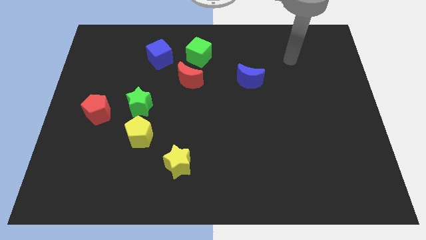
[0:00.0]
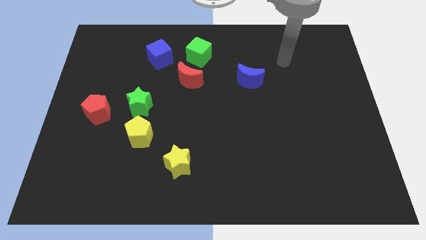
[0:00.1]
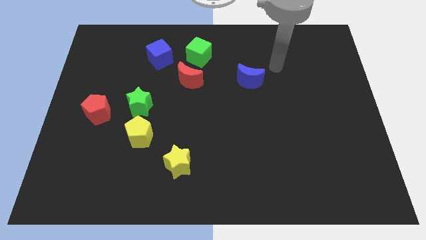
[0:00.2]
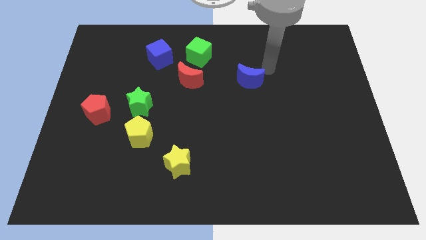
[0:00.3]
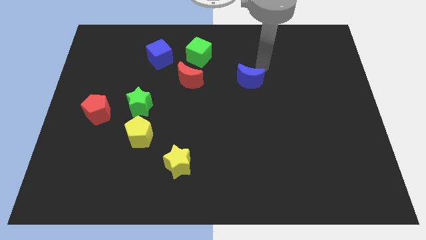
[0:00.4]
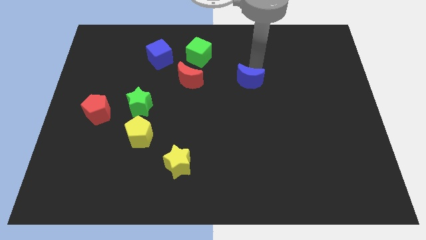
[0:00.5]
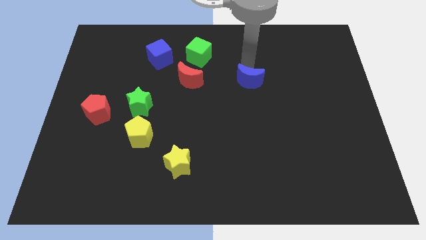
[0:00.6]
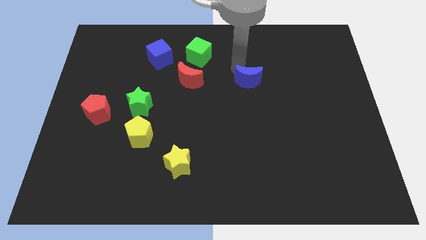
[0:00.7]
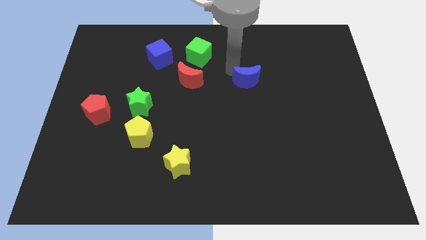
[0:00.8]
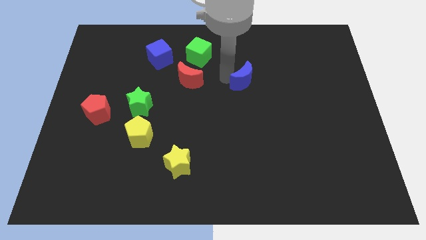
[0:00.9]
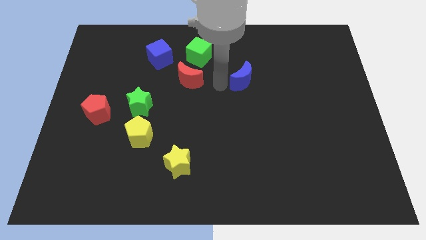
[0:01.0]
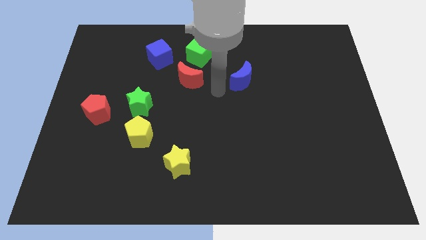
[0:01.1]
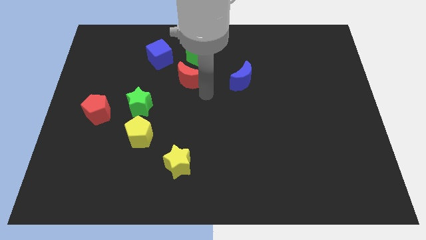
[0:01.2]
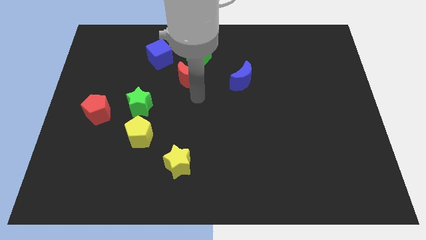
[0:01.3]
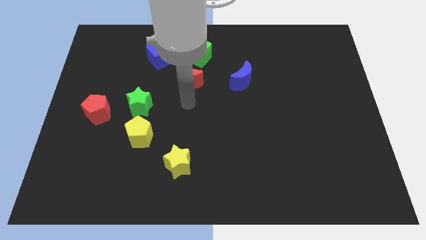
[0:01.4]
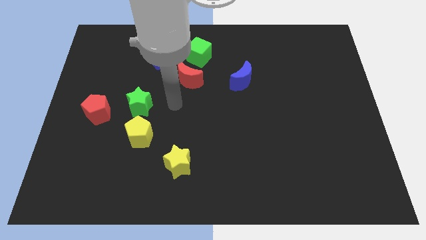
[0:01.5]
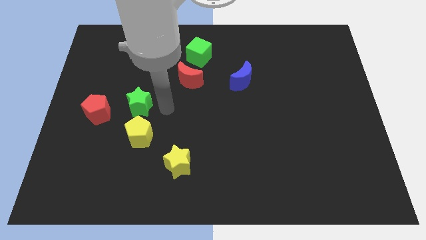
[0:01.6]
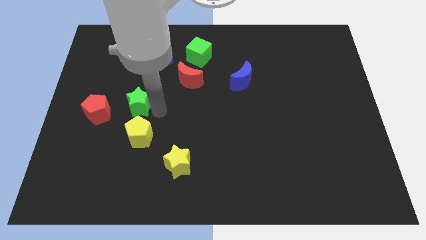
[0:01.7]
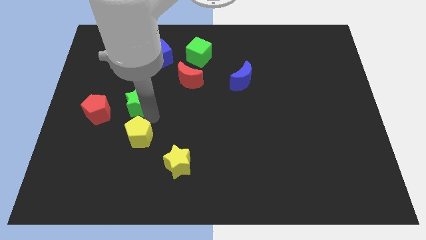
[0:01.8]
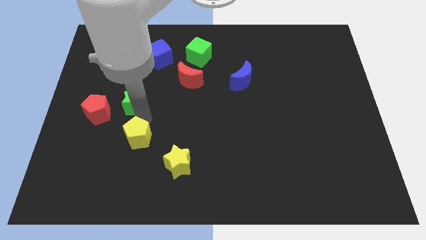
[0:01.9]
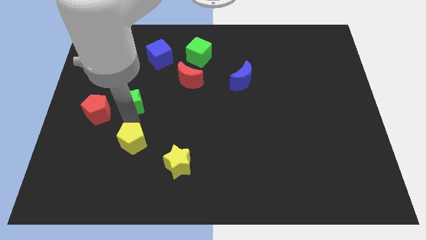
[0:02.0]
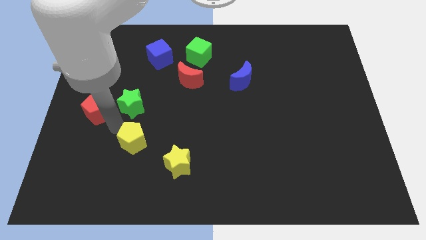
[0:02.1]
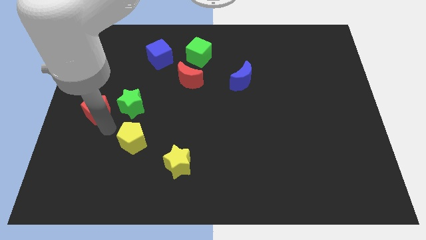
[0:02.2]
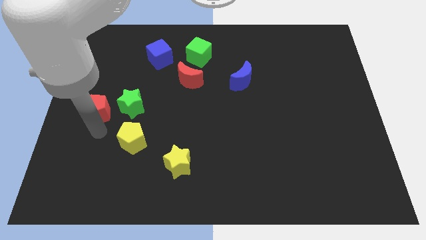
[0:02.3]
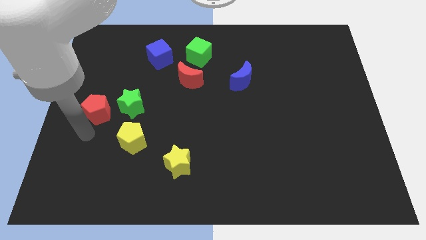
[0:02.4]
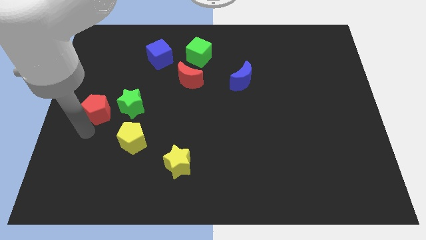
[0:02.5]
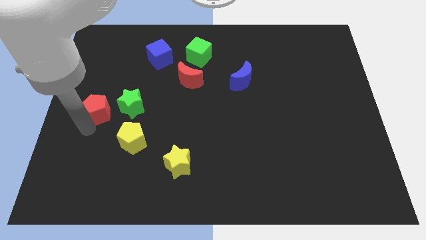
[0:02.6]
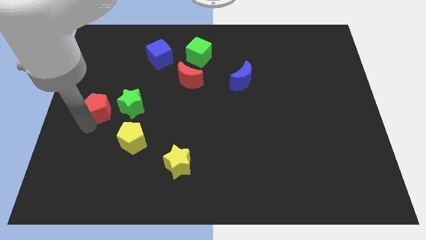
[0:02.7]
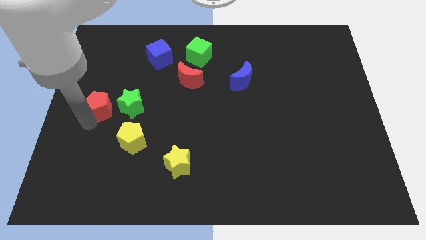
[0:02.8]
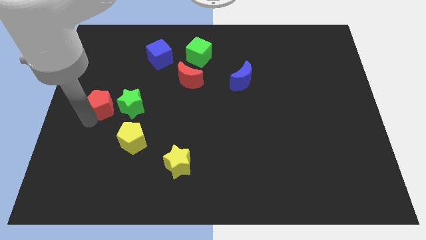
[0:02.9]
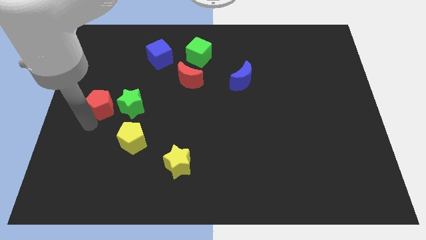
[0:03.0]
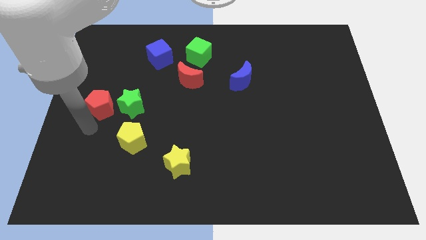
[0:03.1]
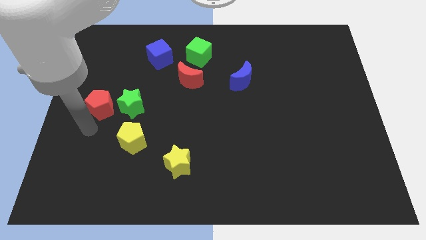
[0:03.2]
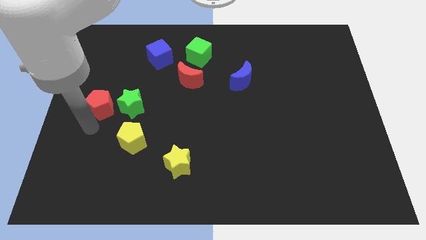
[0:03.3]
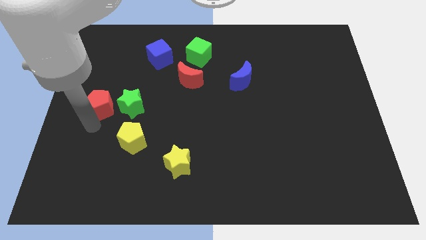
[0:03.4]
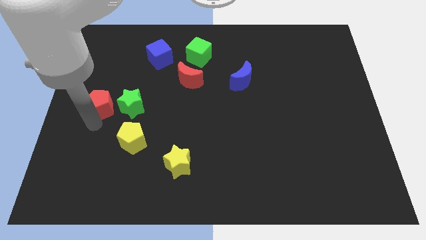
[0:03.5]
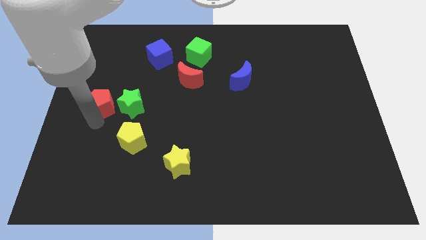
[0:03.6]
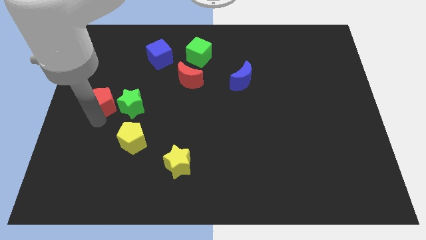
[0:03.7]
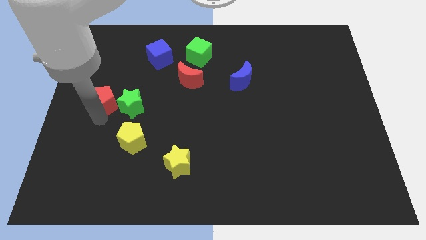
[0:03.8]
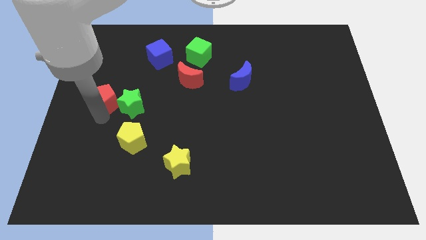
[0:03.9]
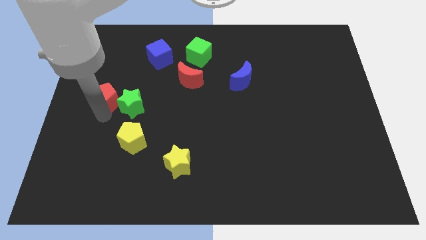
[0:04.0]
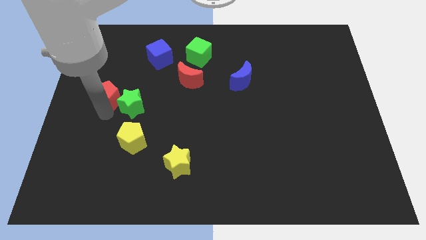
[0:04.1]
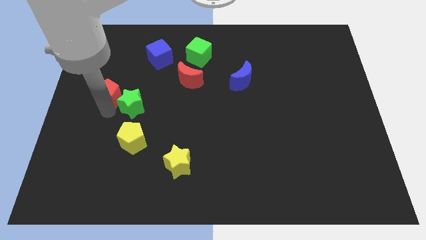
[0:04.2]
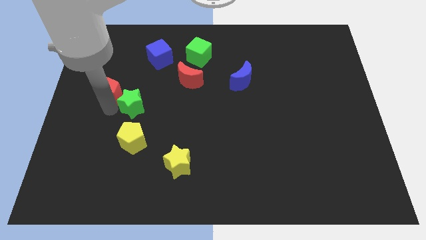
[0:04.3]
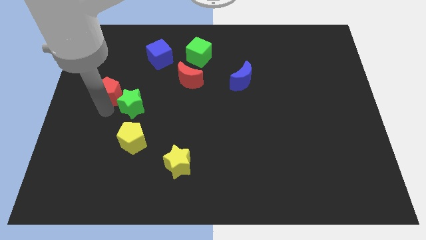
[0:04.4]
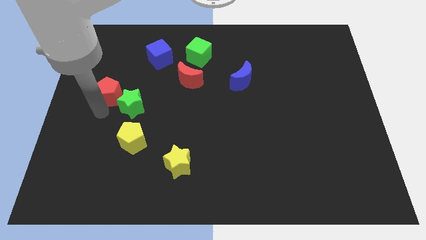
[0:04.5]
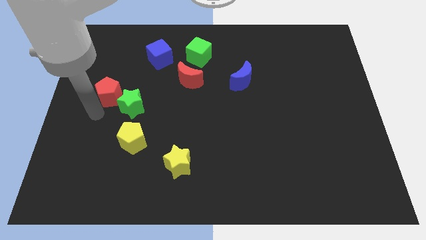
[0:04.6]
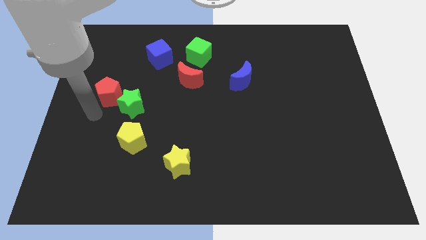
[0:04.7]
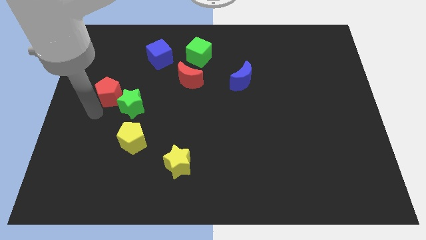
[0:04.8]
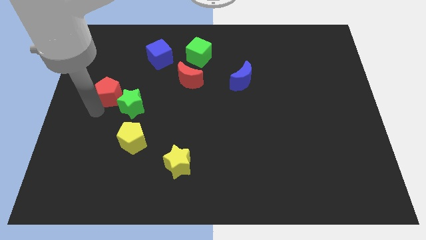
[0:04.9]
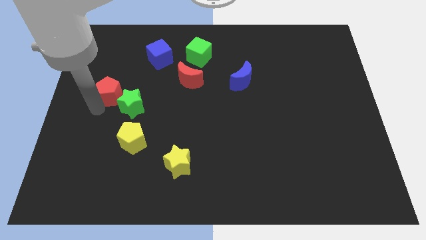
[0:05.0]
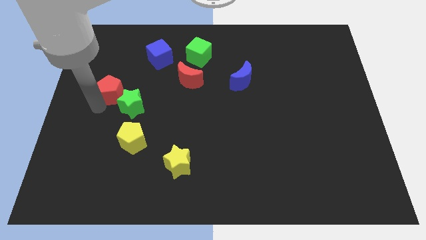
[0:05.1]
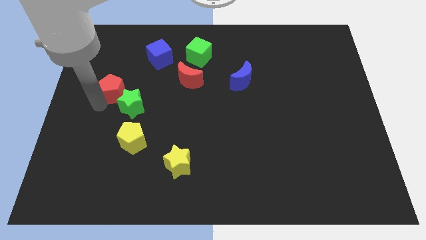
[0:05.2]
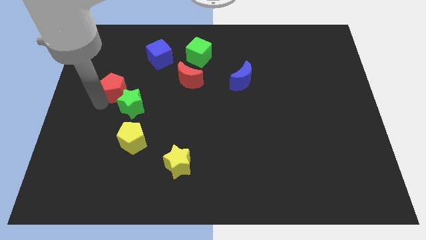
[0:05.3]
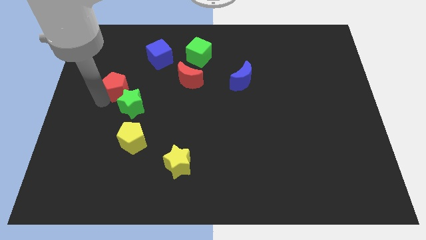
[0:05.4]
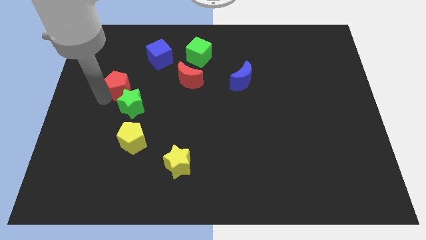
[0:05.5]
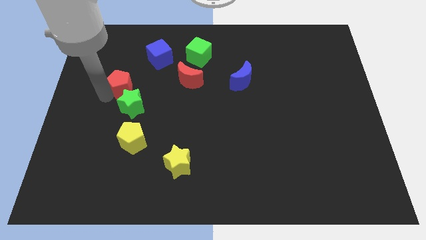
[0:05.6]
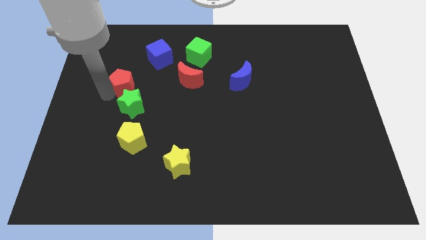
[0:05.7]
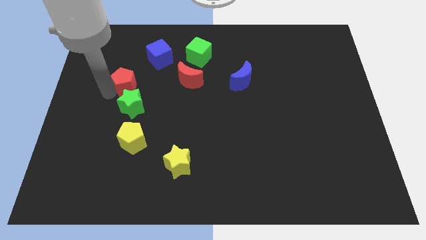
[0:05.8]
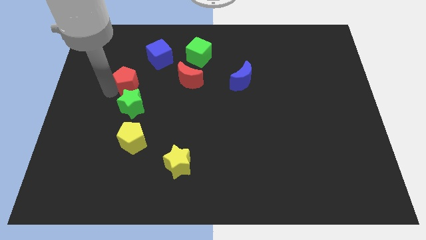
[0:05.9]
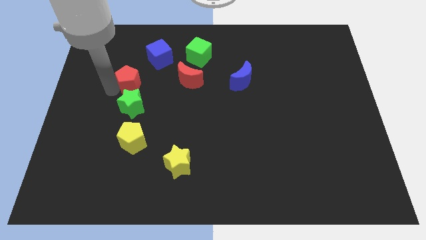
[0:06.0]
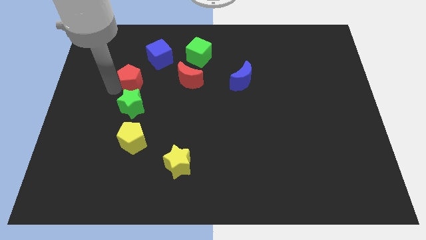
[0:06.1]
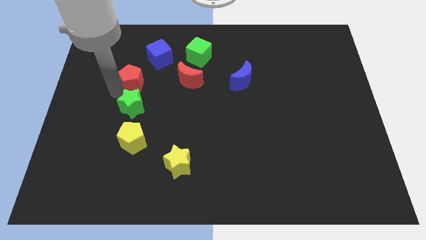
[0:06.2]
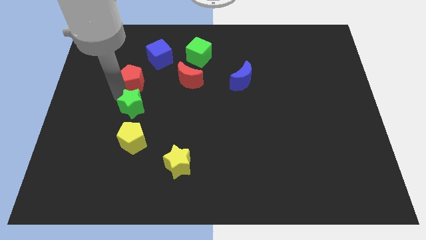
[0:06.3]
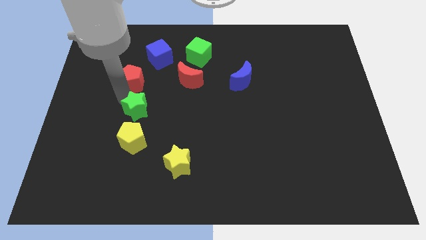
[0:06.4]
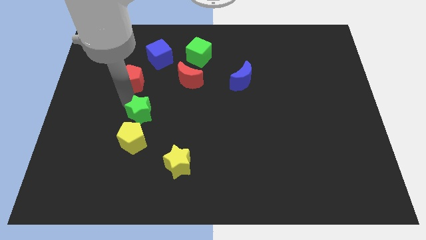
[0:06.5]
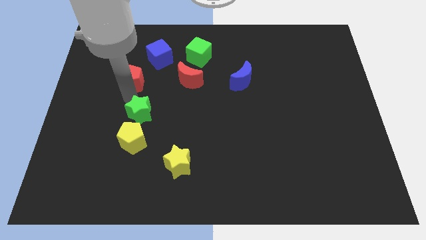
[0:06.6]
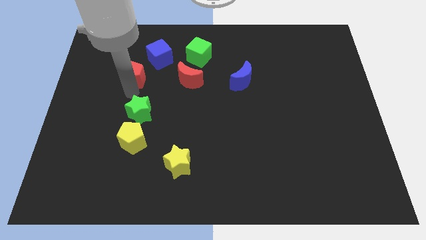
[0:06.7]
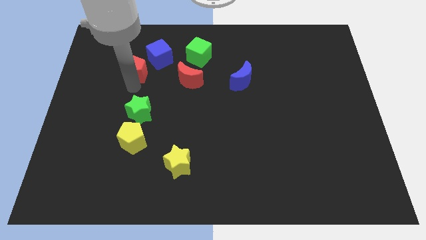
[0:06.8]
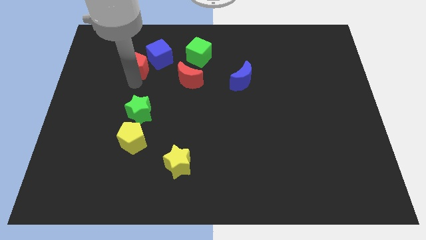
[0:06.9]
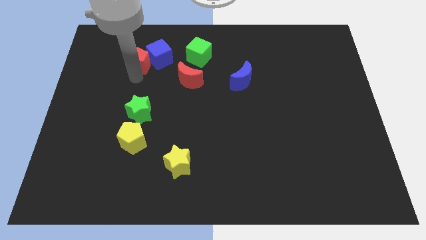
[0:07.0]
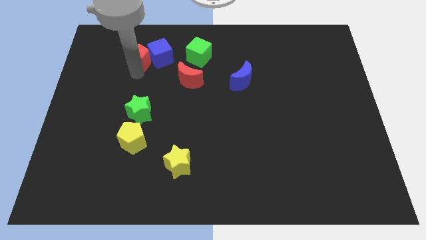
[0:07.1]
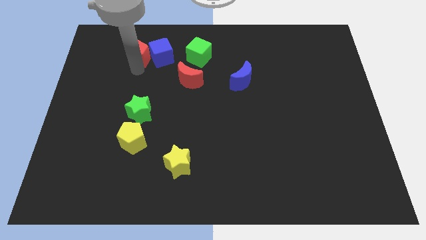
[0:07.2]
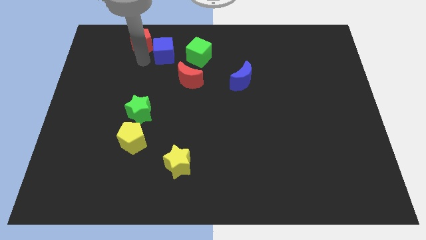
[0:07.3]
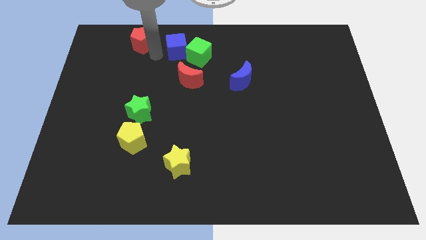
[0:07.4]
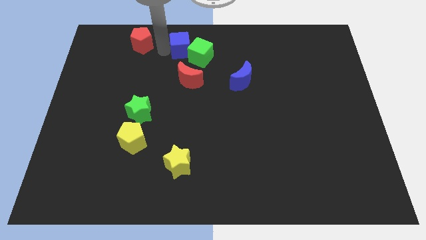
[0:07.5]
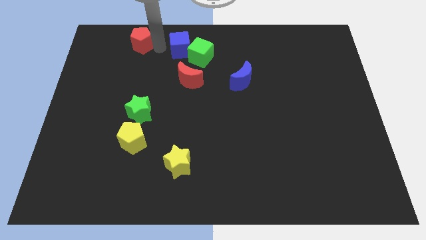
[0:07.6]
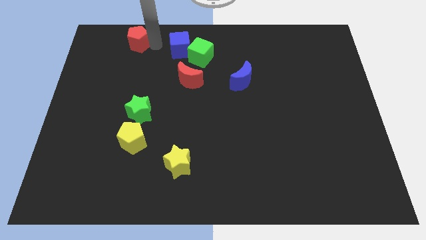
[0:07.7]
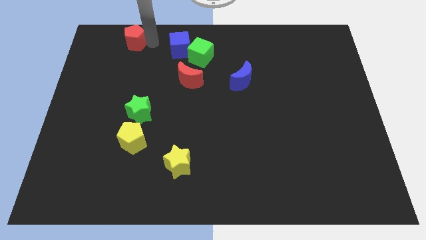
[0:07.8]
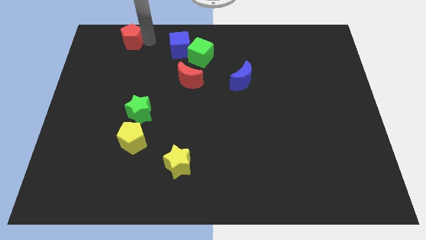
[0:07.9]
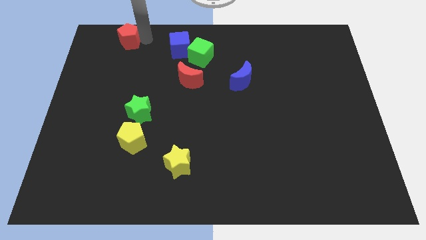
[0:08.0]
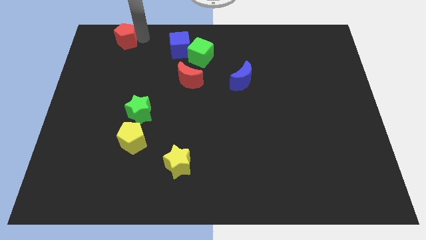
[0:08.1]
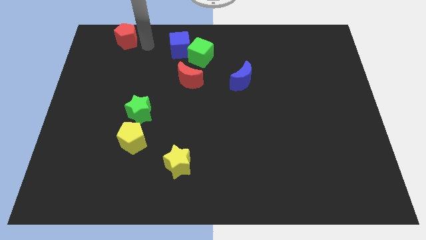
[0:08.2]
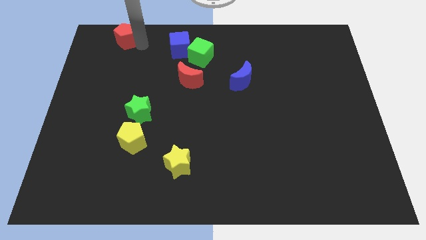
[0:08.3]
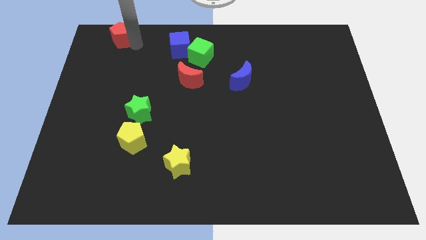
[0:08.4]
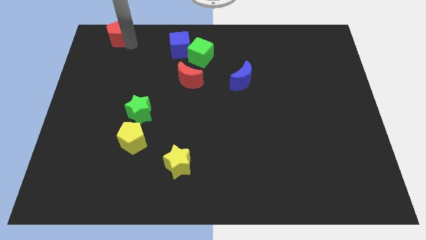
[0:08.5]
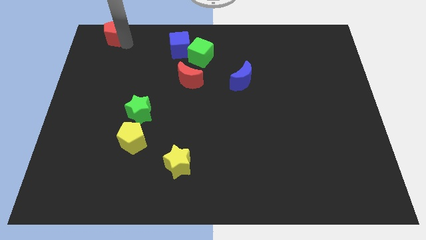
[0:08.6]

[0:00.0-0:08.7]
move the red pentagon to the top left corner
